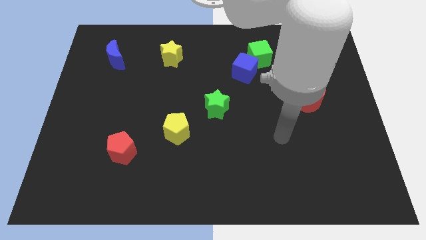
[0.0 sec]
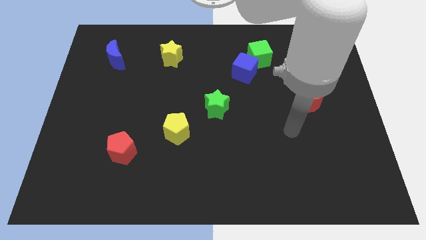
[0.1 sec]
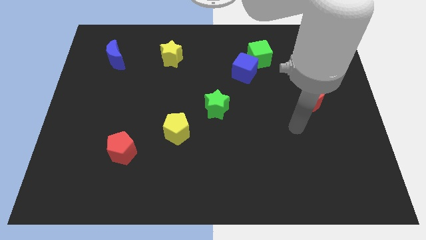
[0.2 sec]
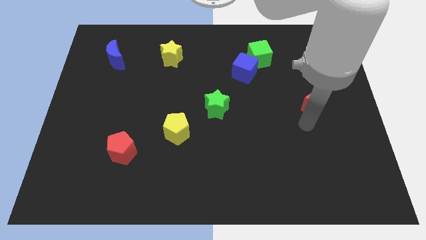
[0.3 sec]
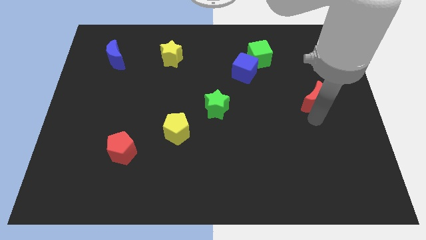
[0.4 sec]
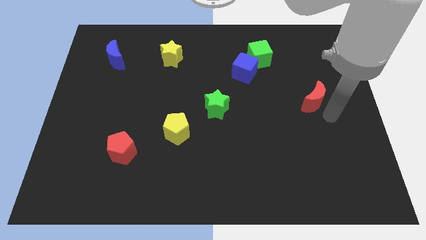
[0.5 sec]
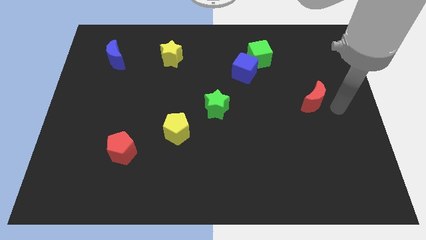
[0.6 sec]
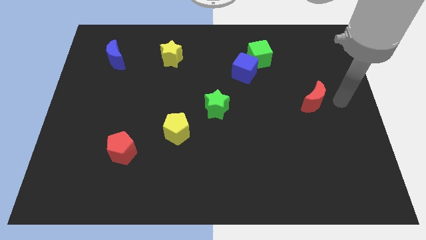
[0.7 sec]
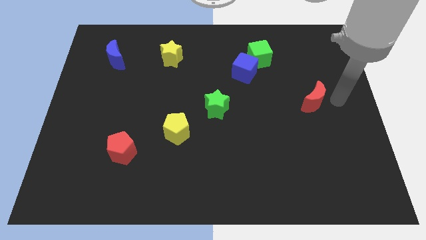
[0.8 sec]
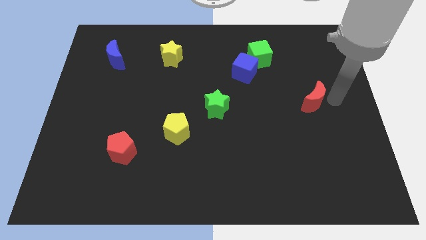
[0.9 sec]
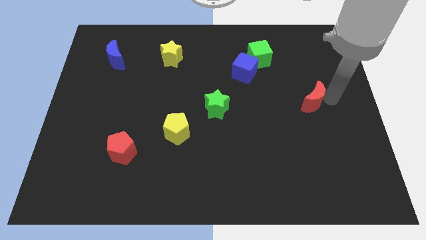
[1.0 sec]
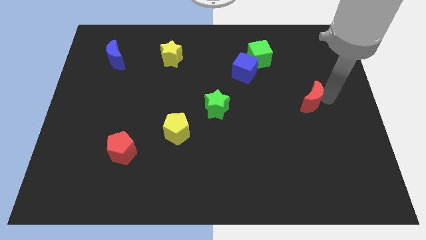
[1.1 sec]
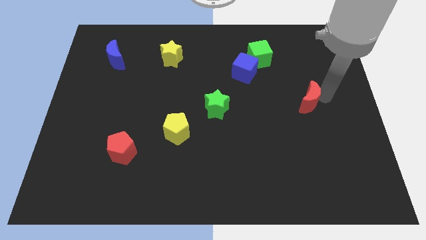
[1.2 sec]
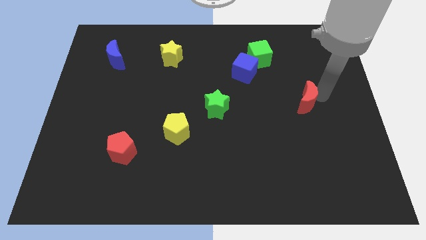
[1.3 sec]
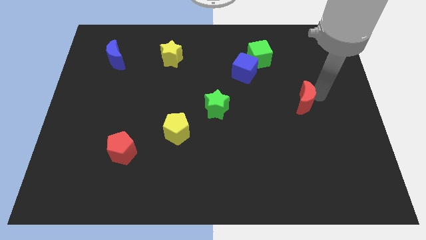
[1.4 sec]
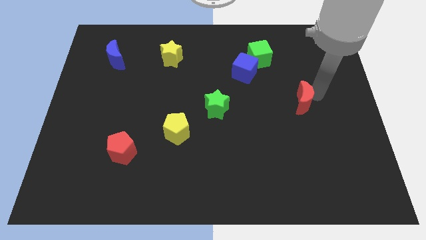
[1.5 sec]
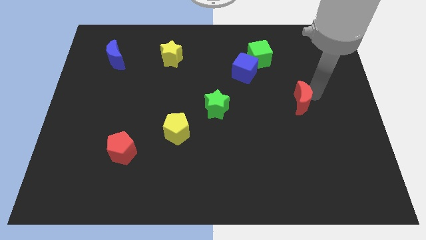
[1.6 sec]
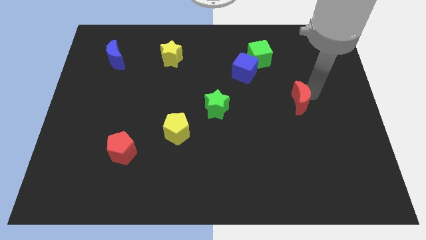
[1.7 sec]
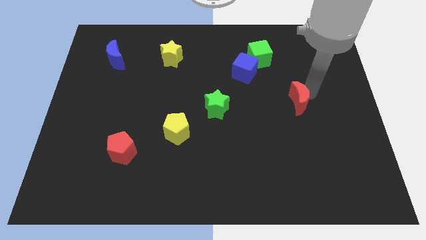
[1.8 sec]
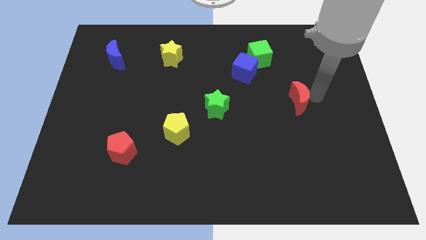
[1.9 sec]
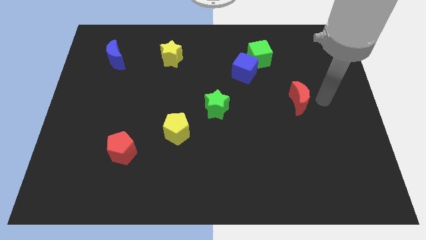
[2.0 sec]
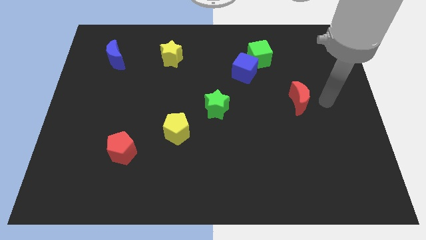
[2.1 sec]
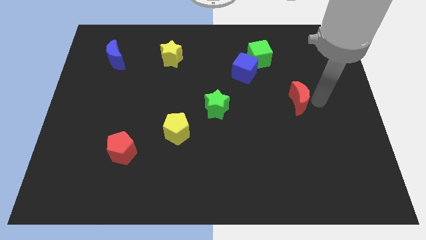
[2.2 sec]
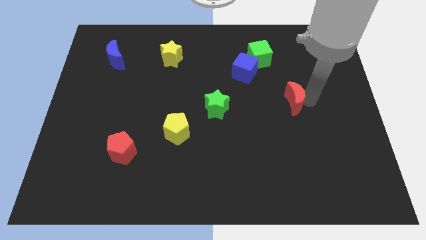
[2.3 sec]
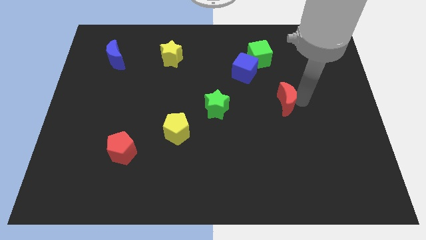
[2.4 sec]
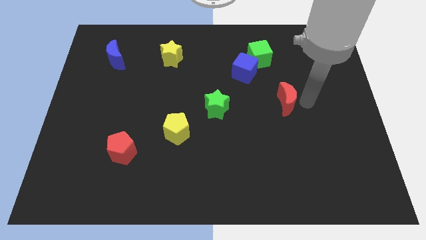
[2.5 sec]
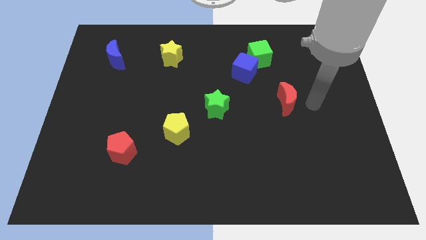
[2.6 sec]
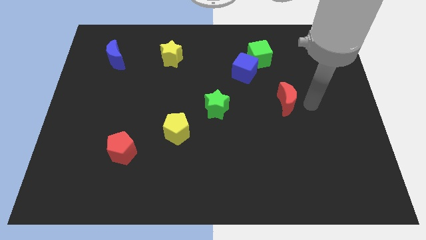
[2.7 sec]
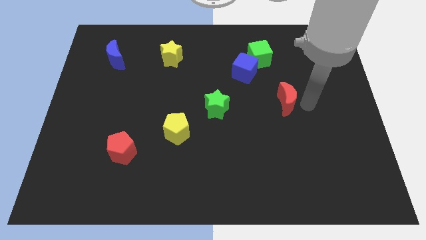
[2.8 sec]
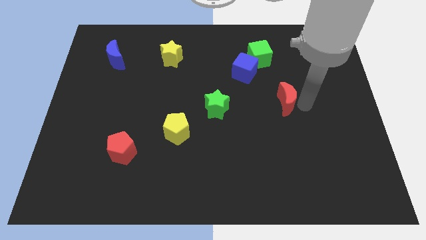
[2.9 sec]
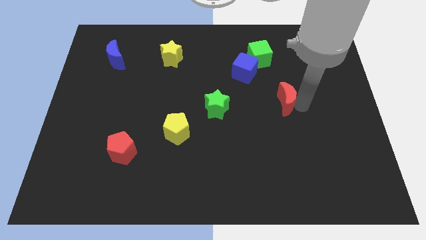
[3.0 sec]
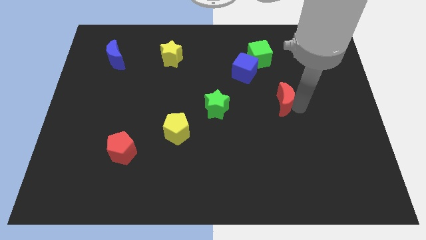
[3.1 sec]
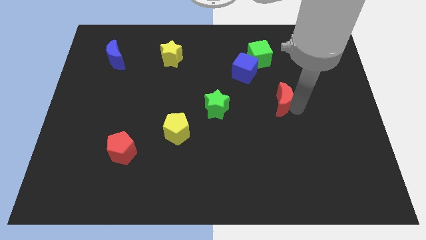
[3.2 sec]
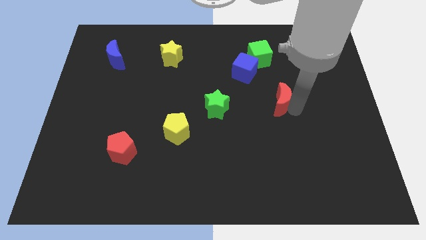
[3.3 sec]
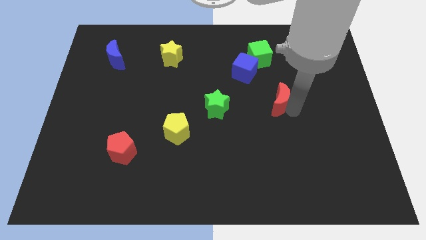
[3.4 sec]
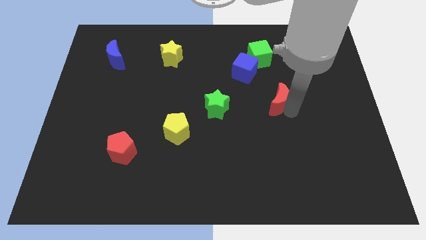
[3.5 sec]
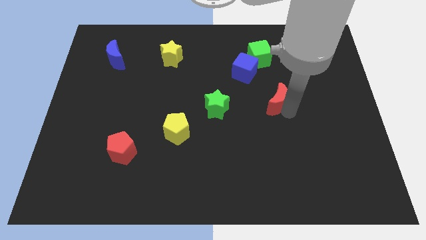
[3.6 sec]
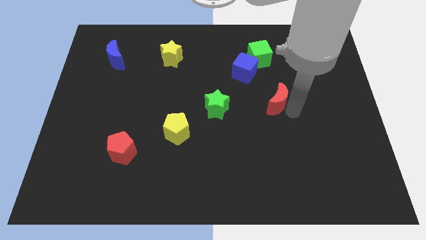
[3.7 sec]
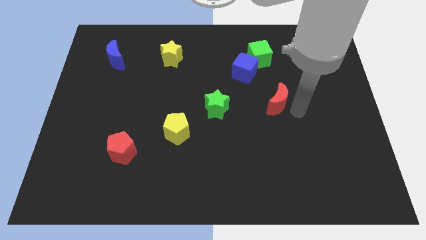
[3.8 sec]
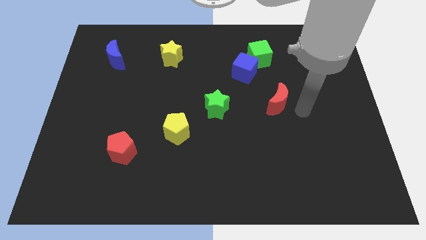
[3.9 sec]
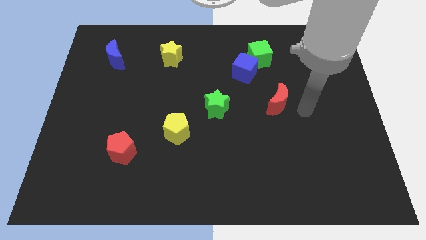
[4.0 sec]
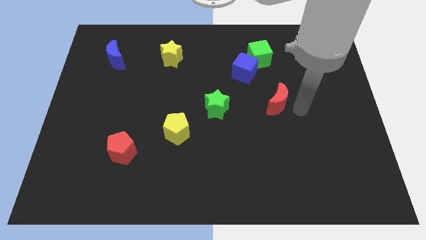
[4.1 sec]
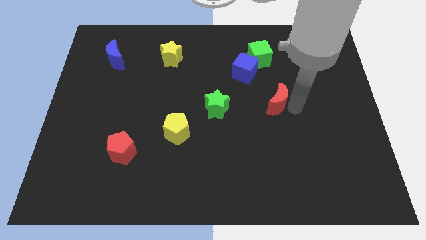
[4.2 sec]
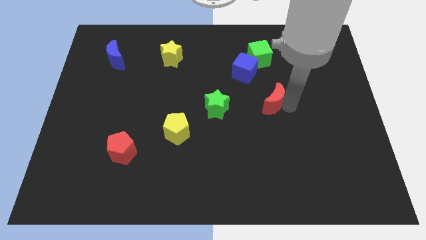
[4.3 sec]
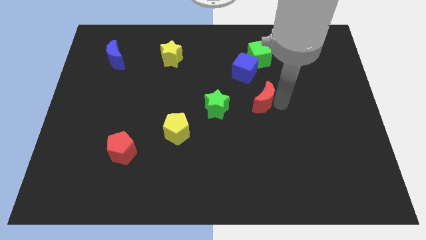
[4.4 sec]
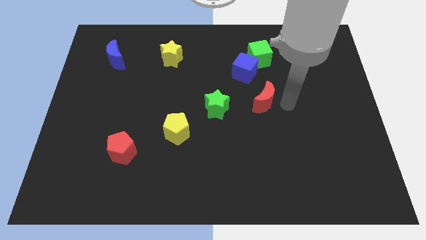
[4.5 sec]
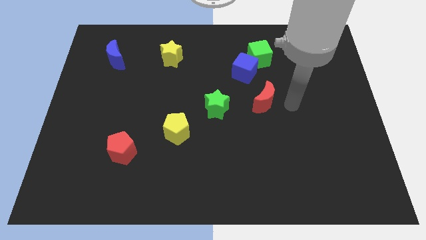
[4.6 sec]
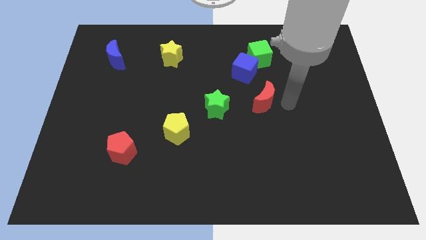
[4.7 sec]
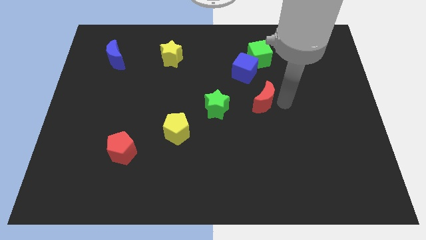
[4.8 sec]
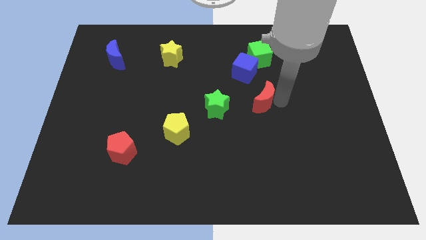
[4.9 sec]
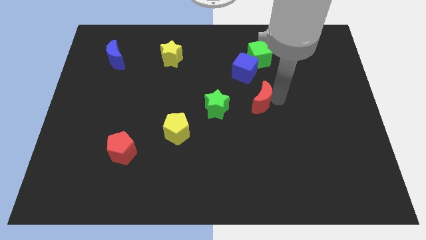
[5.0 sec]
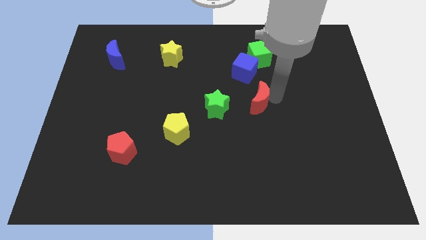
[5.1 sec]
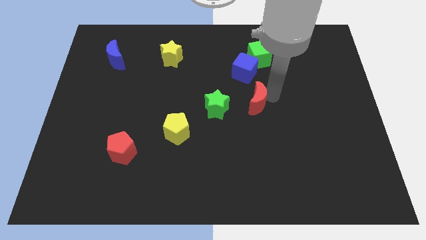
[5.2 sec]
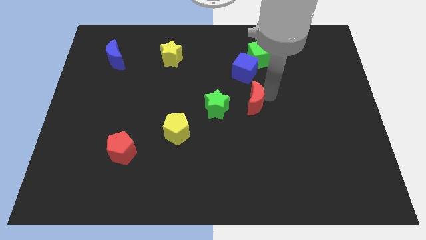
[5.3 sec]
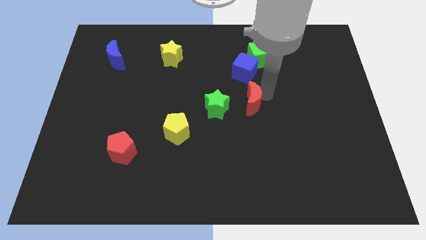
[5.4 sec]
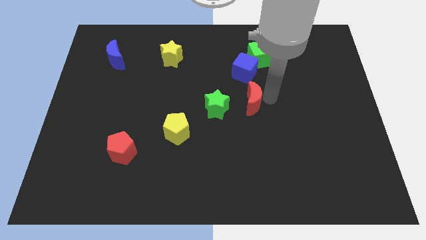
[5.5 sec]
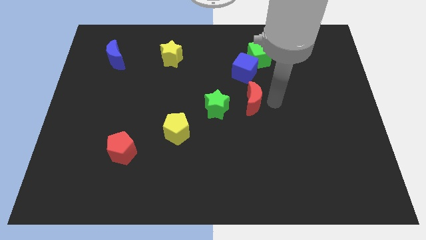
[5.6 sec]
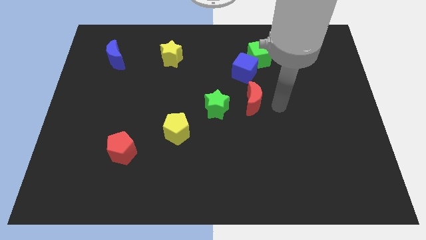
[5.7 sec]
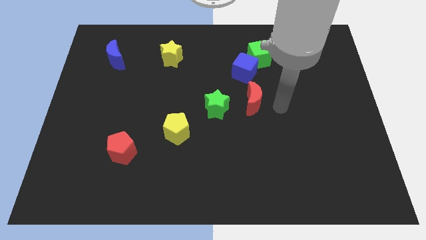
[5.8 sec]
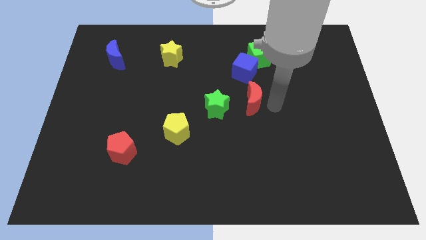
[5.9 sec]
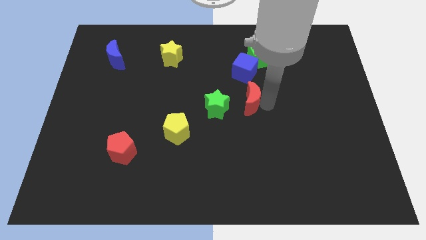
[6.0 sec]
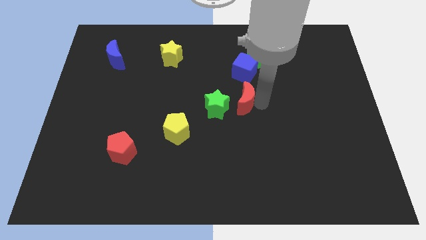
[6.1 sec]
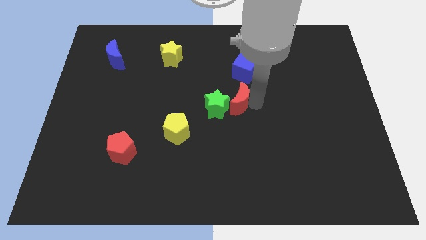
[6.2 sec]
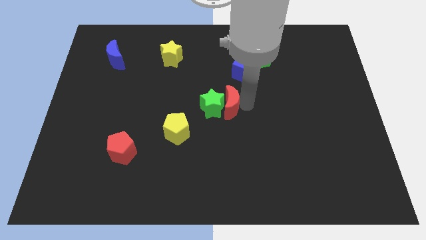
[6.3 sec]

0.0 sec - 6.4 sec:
move the red moon to the left

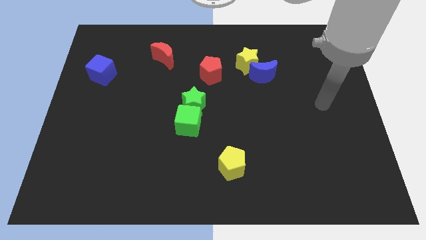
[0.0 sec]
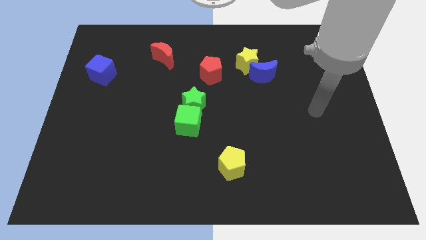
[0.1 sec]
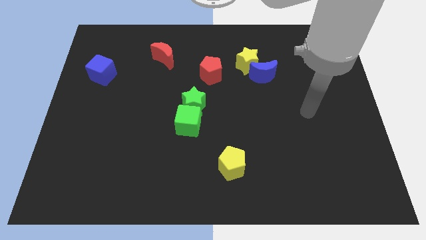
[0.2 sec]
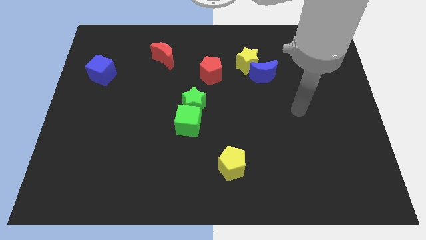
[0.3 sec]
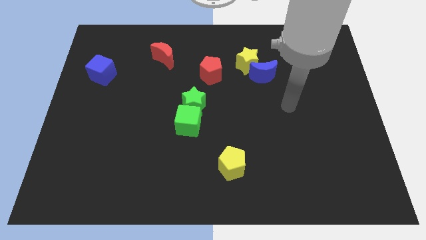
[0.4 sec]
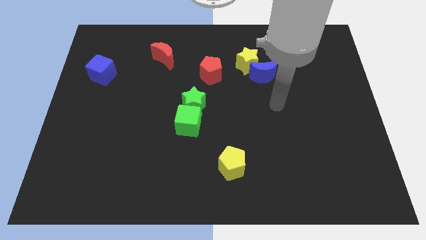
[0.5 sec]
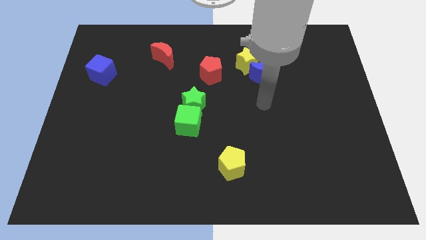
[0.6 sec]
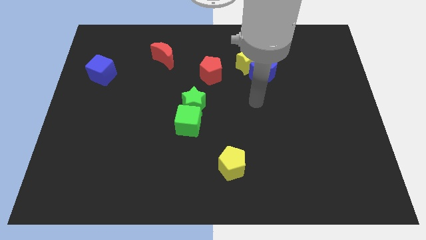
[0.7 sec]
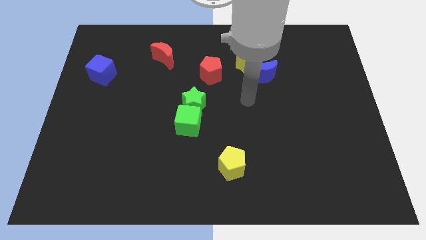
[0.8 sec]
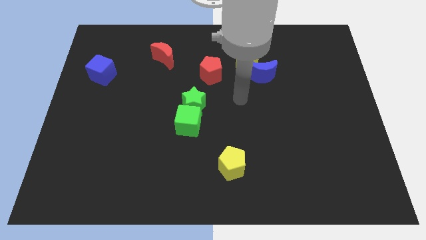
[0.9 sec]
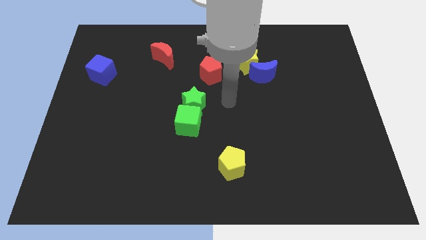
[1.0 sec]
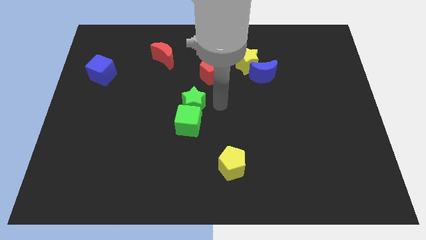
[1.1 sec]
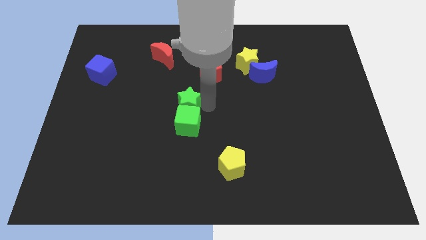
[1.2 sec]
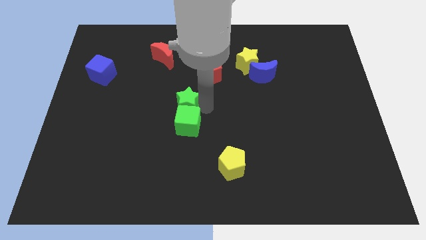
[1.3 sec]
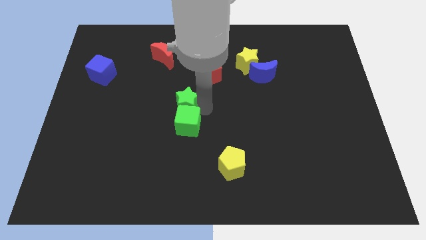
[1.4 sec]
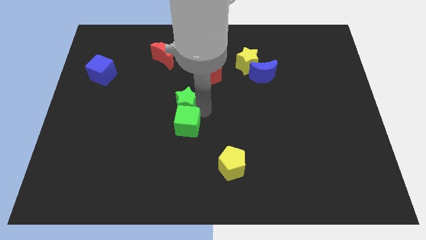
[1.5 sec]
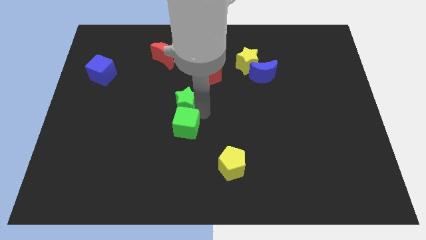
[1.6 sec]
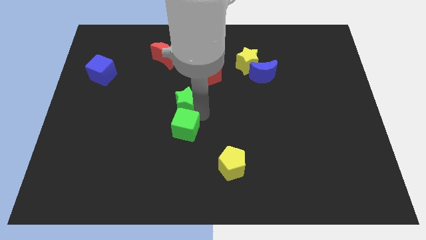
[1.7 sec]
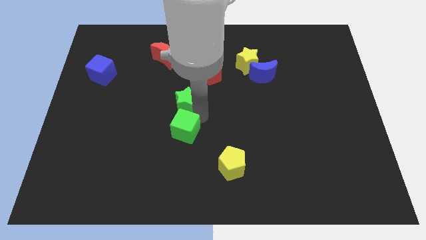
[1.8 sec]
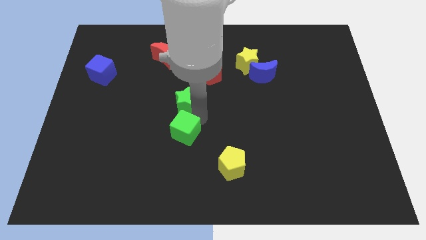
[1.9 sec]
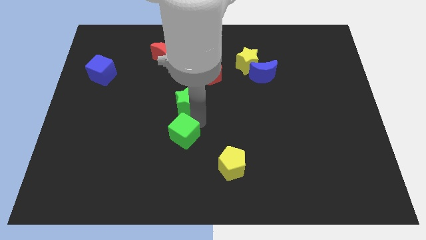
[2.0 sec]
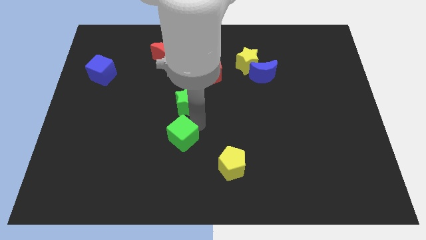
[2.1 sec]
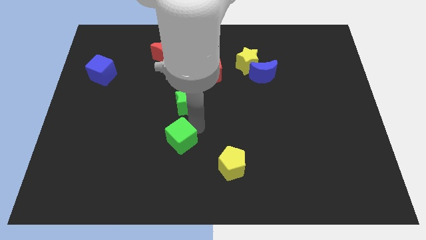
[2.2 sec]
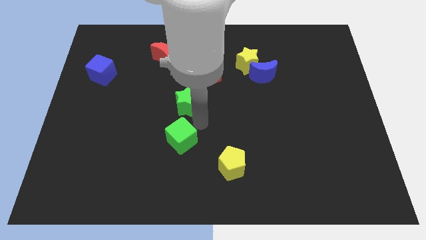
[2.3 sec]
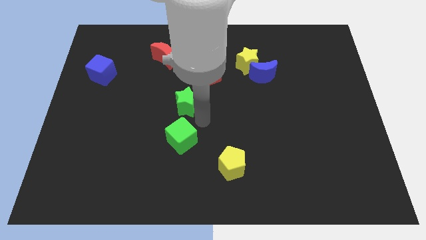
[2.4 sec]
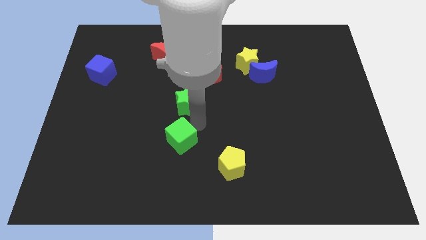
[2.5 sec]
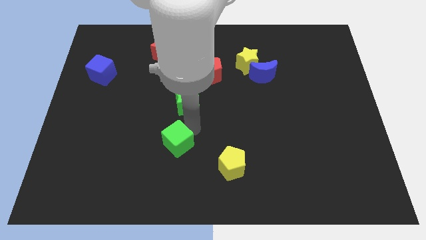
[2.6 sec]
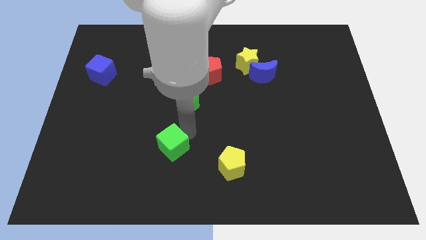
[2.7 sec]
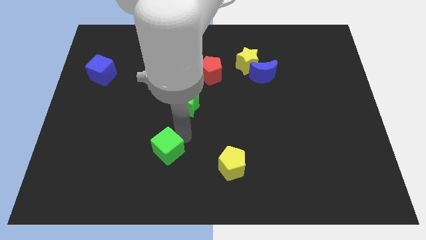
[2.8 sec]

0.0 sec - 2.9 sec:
push the green cube a little diagonally down and to the left
